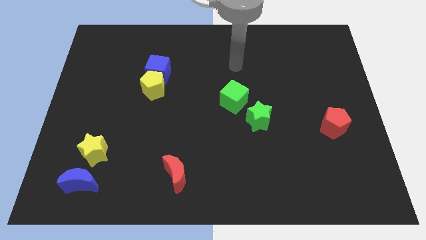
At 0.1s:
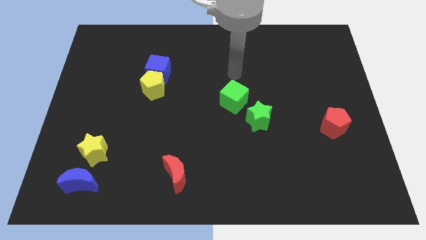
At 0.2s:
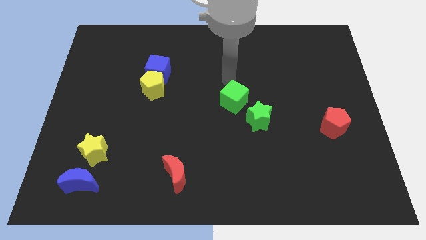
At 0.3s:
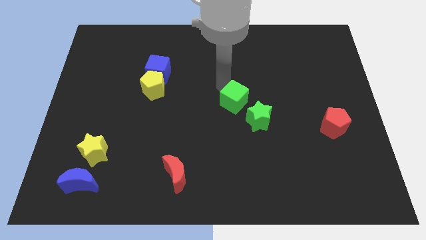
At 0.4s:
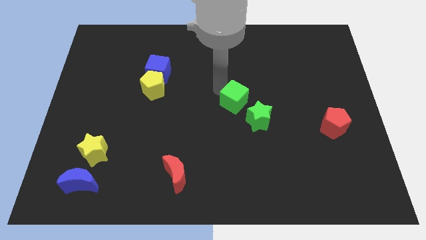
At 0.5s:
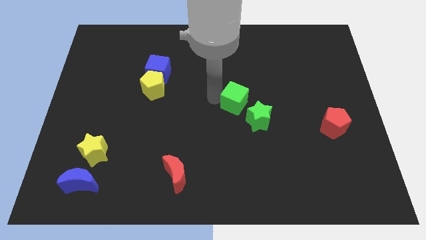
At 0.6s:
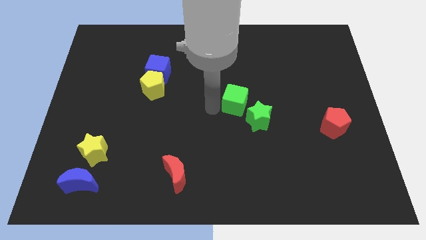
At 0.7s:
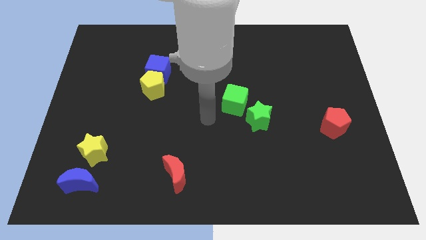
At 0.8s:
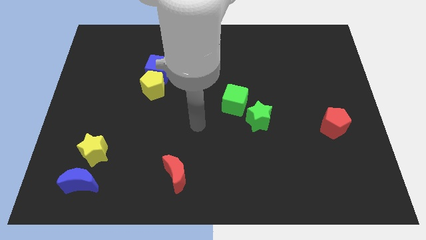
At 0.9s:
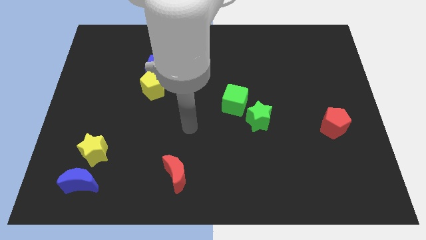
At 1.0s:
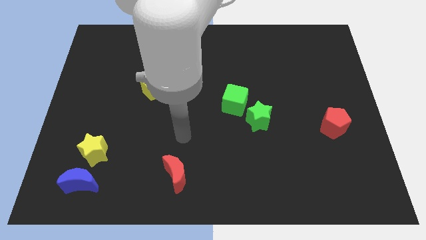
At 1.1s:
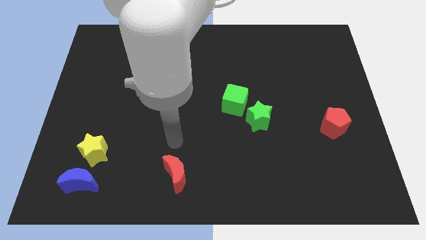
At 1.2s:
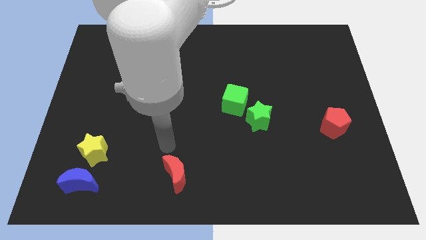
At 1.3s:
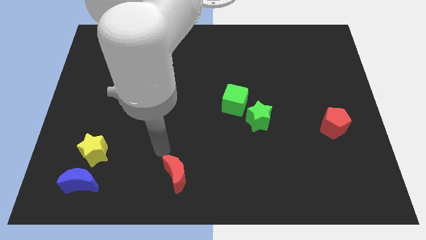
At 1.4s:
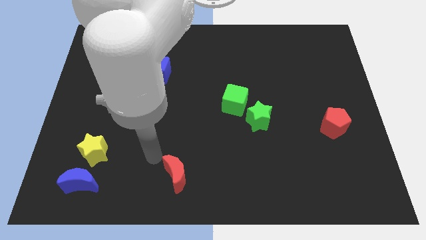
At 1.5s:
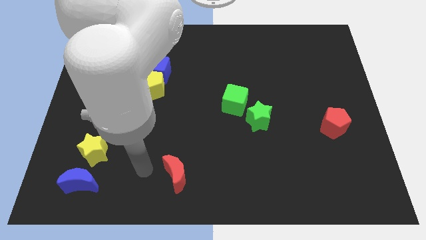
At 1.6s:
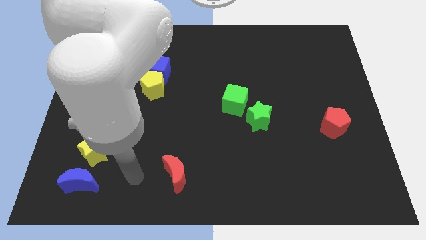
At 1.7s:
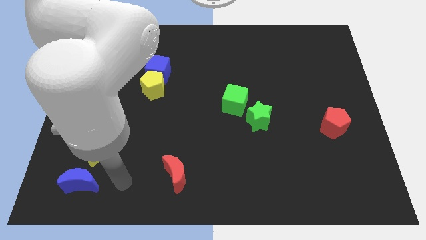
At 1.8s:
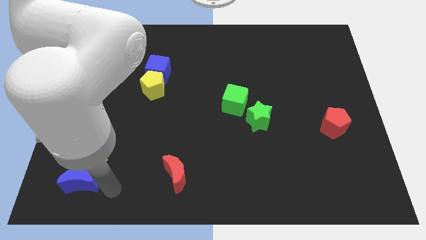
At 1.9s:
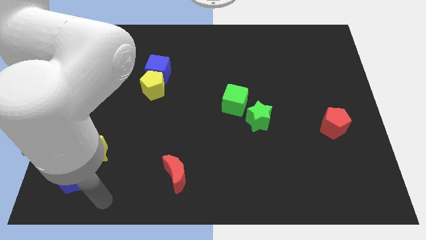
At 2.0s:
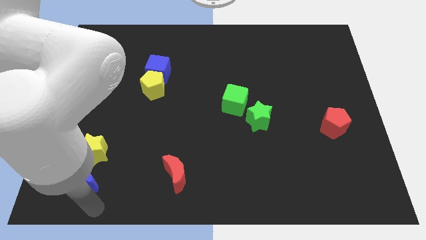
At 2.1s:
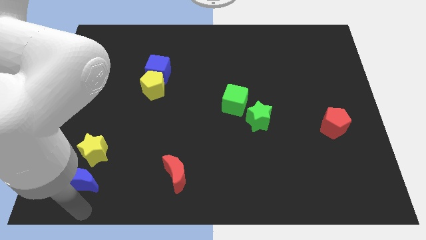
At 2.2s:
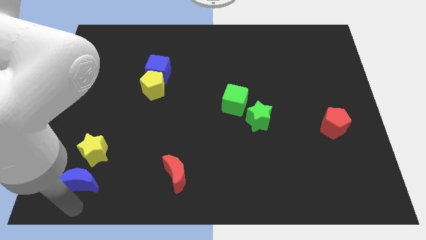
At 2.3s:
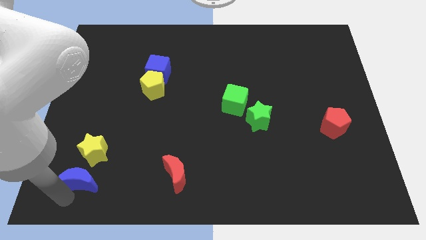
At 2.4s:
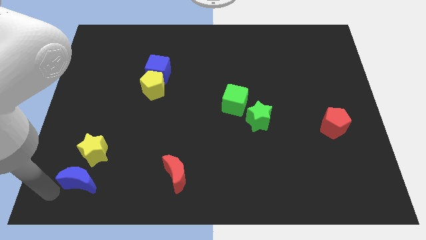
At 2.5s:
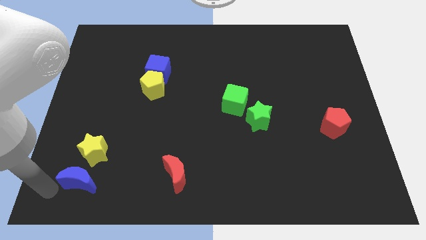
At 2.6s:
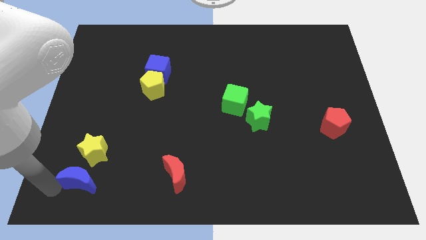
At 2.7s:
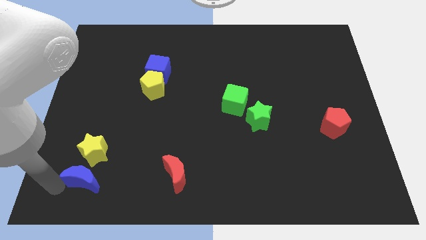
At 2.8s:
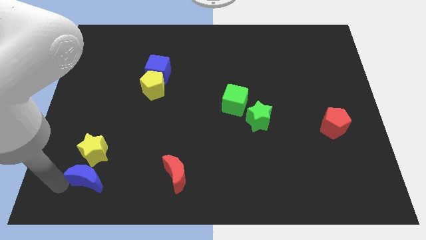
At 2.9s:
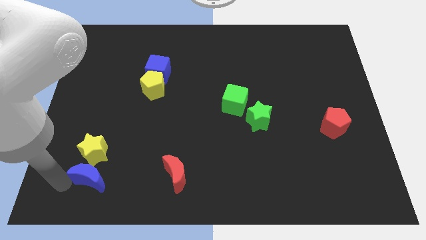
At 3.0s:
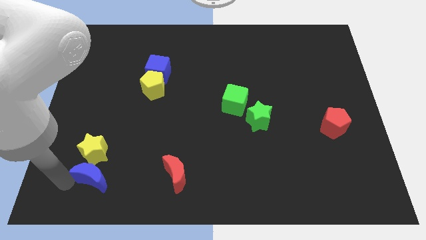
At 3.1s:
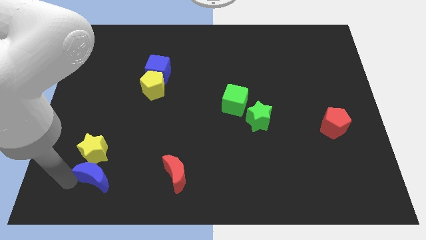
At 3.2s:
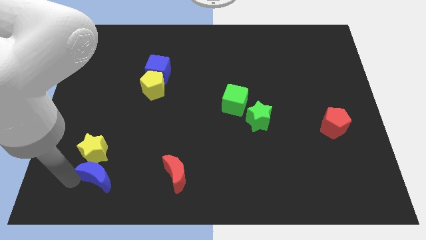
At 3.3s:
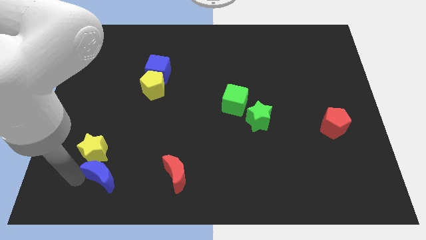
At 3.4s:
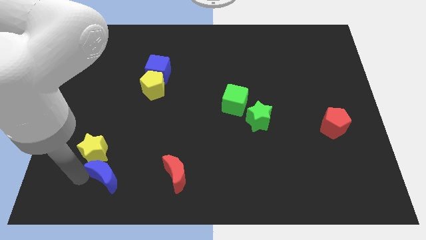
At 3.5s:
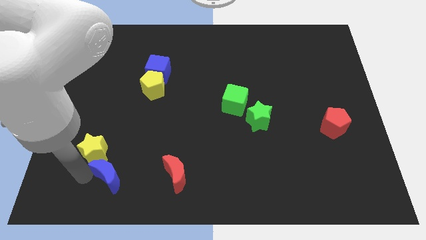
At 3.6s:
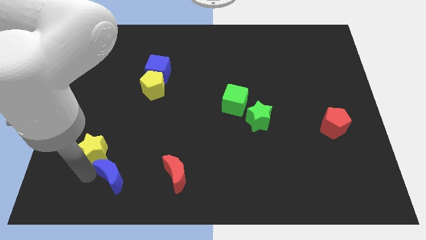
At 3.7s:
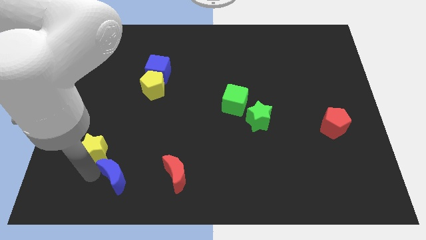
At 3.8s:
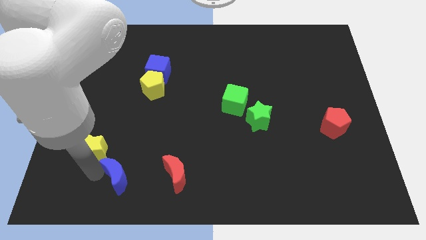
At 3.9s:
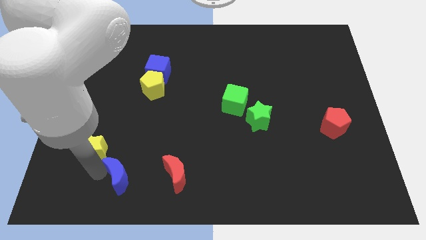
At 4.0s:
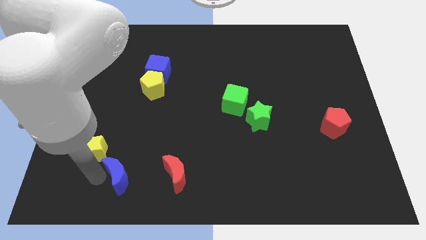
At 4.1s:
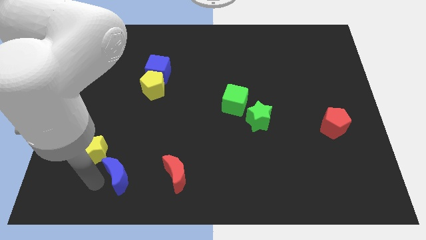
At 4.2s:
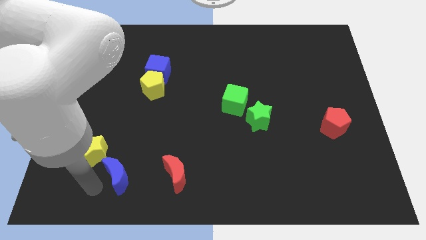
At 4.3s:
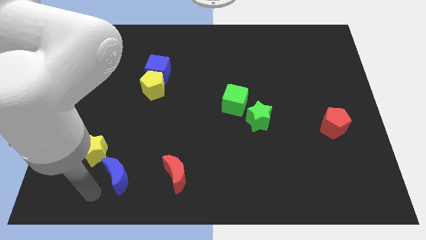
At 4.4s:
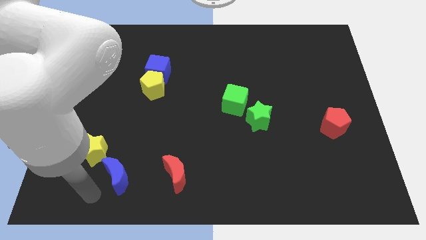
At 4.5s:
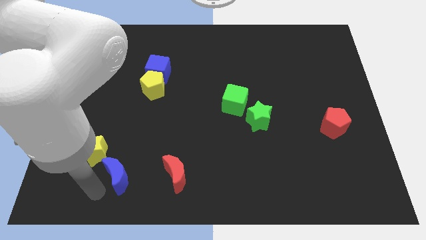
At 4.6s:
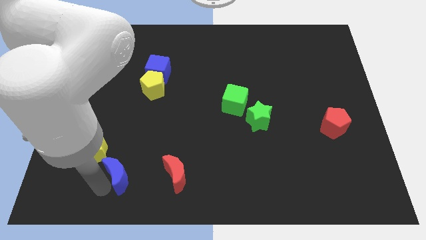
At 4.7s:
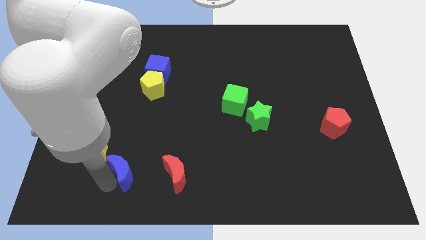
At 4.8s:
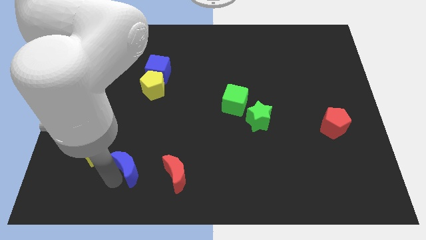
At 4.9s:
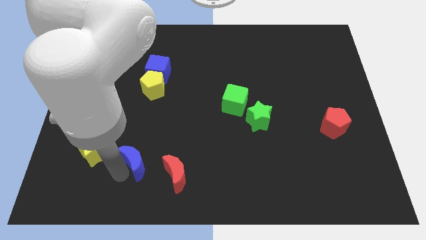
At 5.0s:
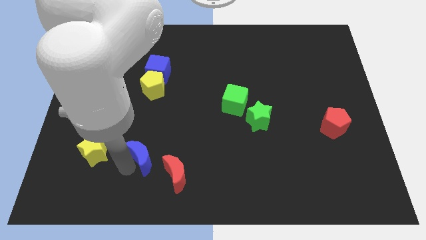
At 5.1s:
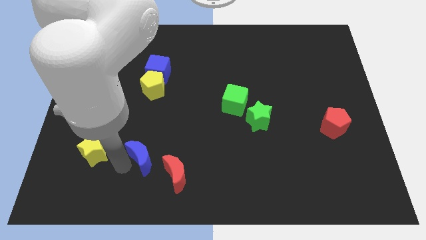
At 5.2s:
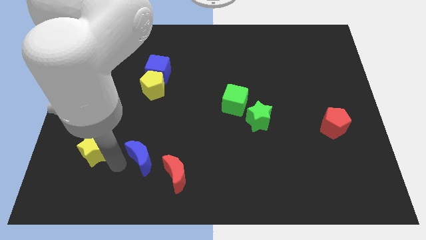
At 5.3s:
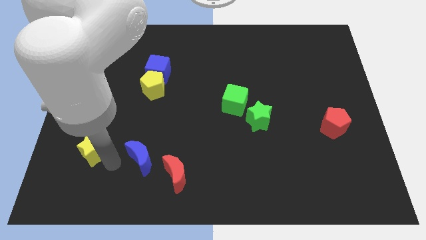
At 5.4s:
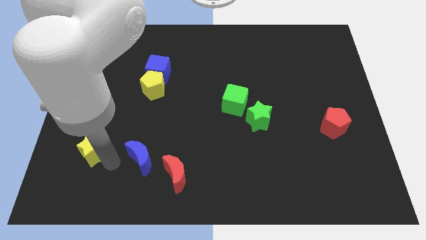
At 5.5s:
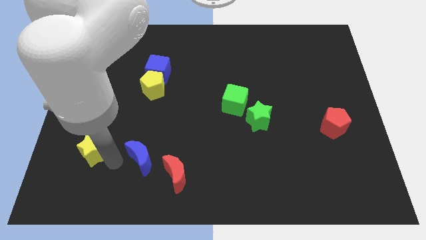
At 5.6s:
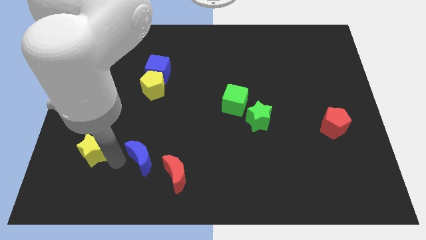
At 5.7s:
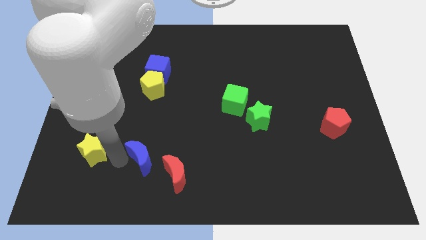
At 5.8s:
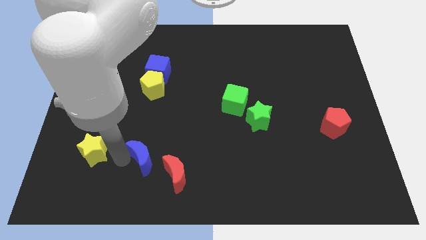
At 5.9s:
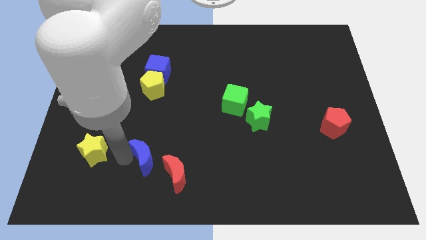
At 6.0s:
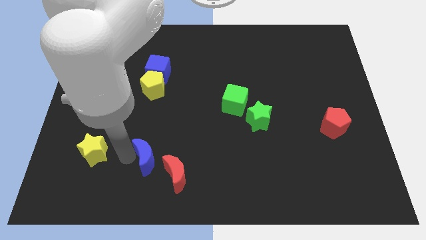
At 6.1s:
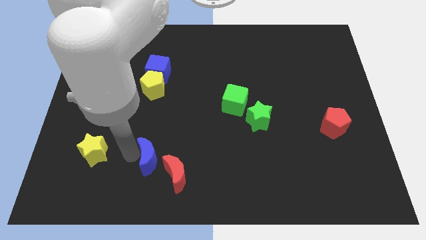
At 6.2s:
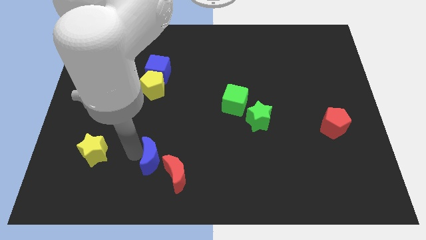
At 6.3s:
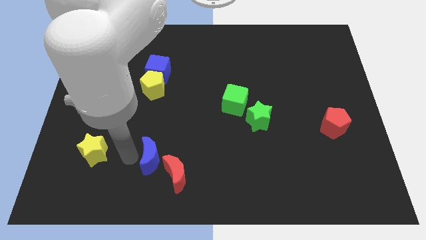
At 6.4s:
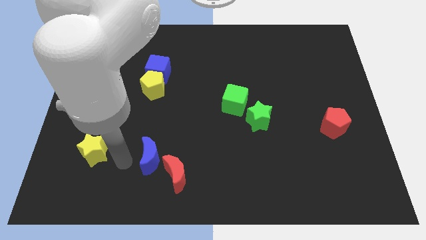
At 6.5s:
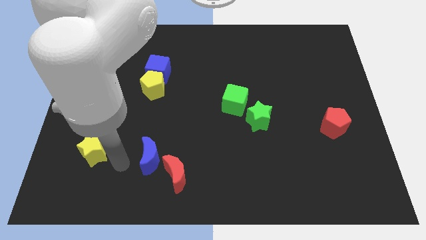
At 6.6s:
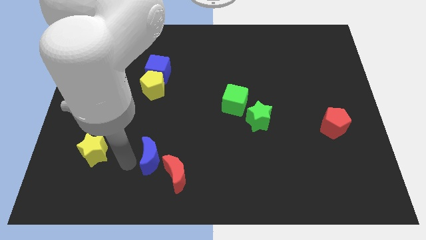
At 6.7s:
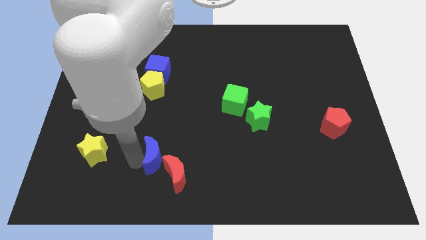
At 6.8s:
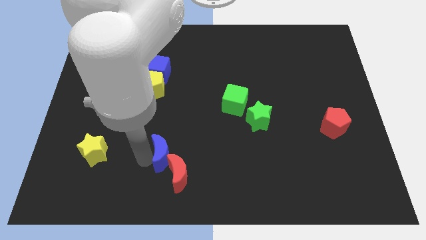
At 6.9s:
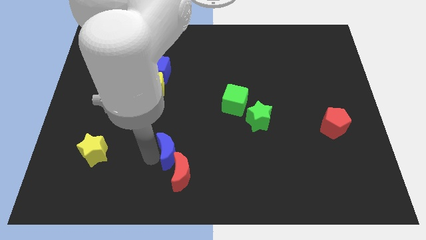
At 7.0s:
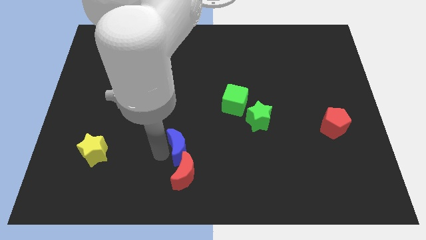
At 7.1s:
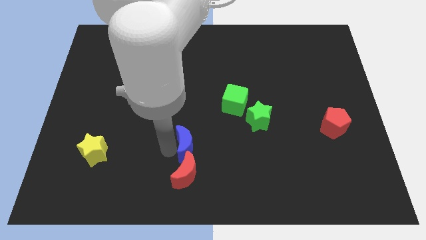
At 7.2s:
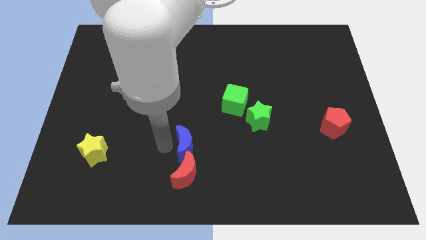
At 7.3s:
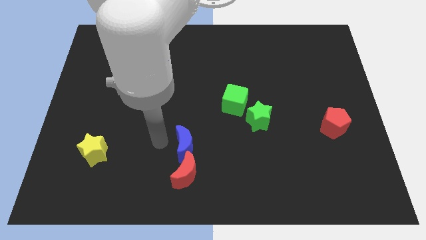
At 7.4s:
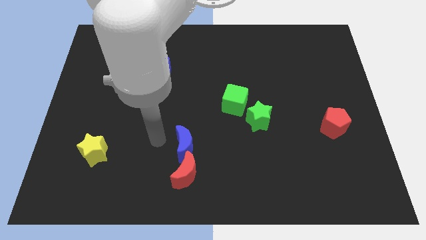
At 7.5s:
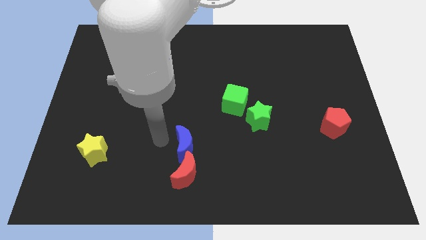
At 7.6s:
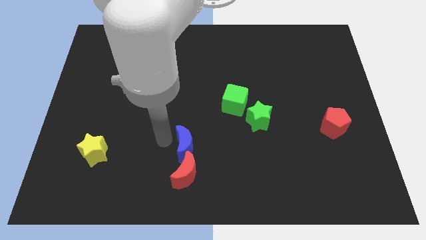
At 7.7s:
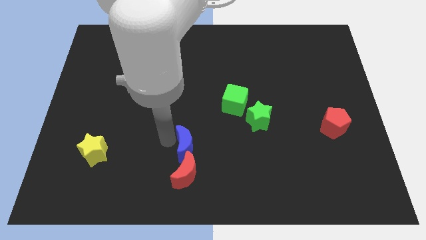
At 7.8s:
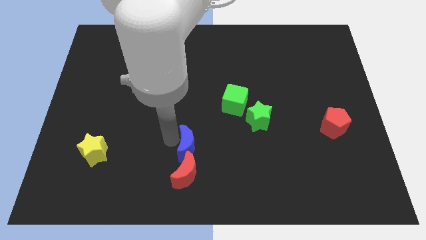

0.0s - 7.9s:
move the blue moon to the top right side of the red moon
